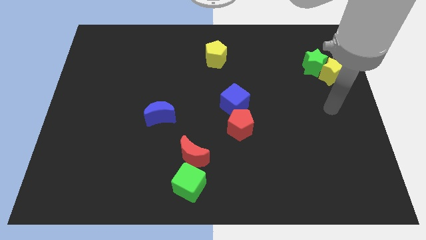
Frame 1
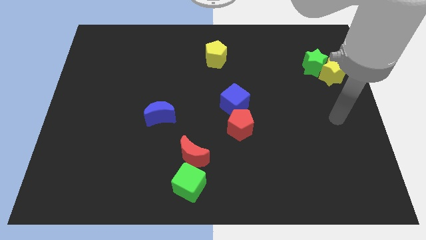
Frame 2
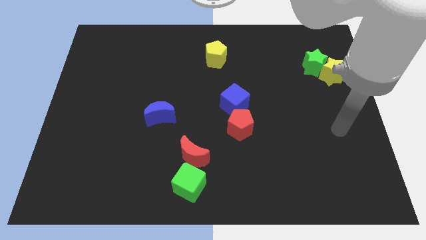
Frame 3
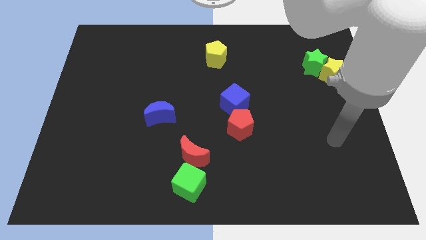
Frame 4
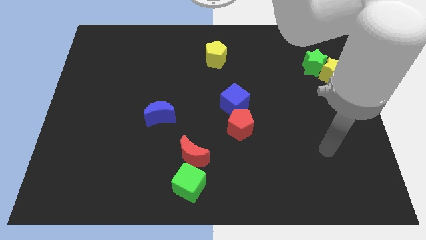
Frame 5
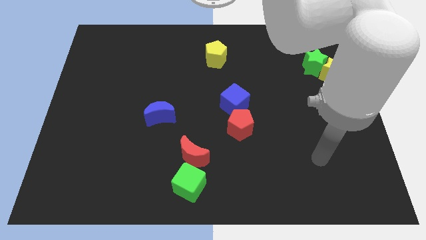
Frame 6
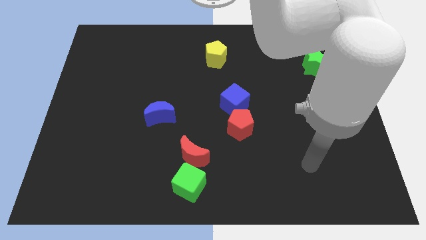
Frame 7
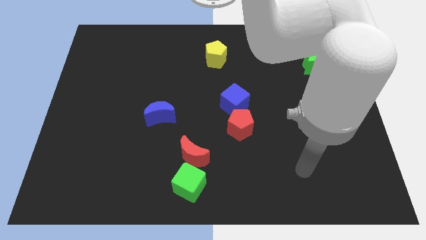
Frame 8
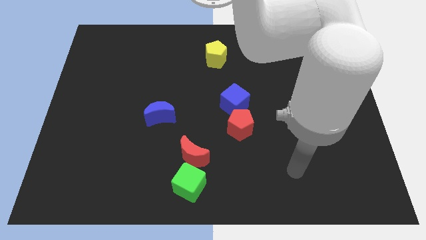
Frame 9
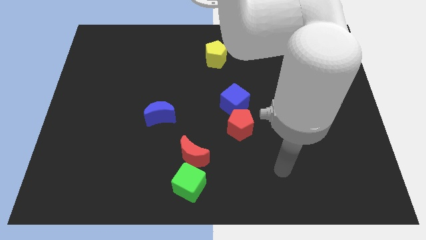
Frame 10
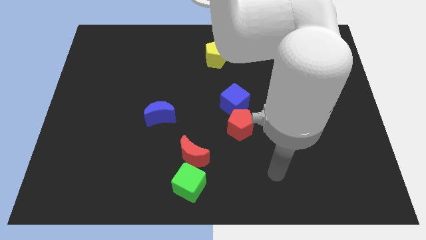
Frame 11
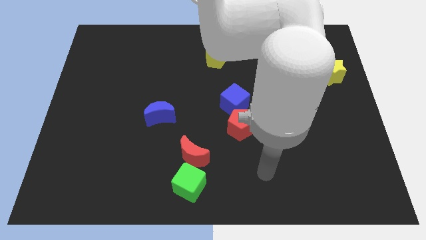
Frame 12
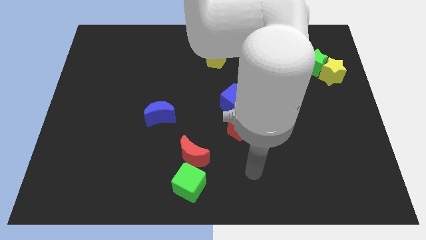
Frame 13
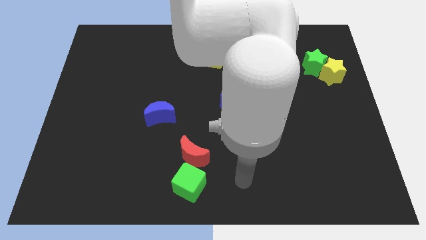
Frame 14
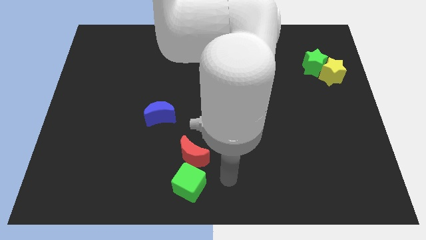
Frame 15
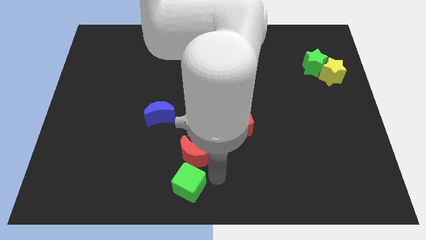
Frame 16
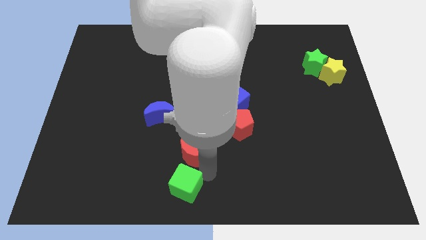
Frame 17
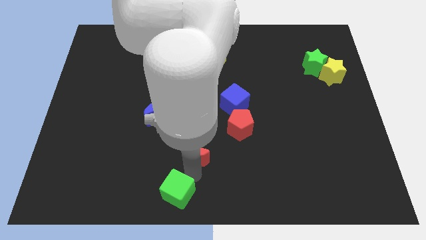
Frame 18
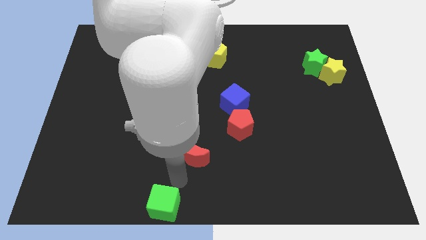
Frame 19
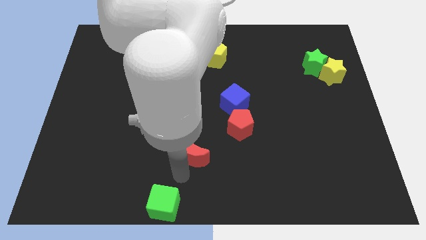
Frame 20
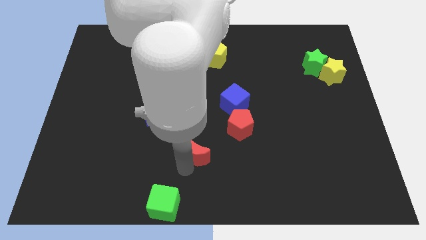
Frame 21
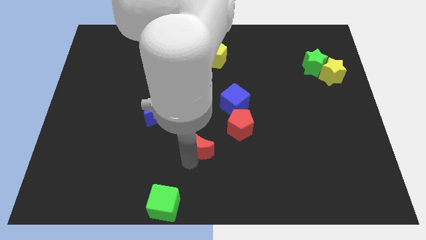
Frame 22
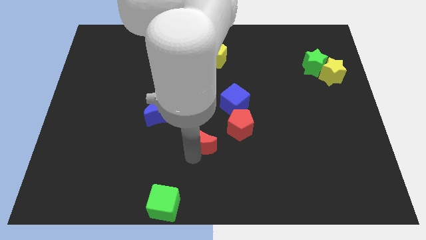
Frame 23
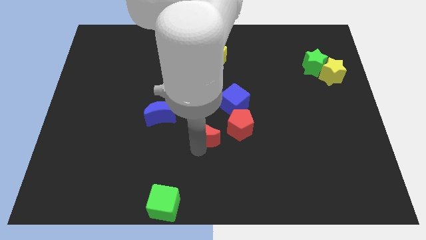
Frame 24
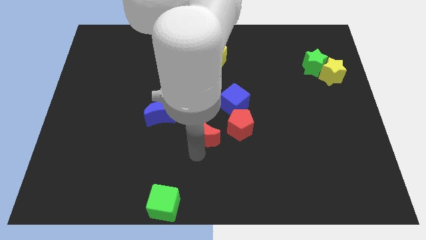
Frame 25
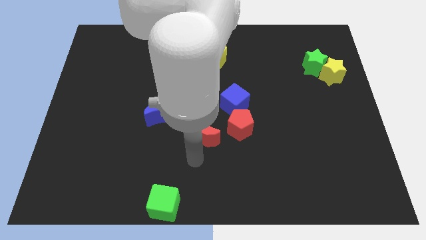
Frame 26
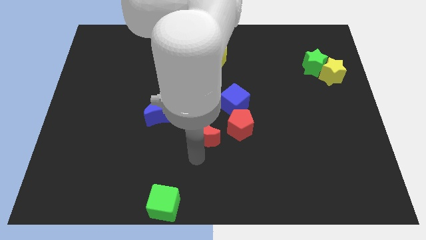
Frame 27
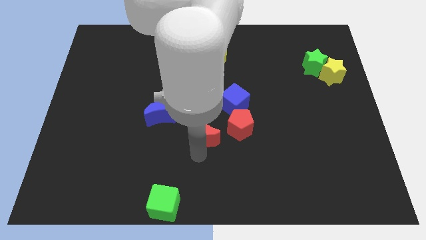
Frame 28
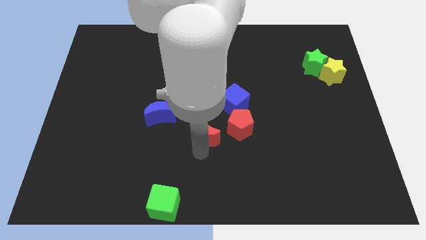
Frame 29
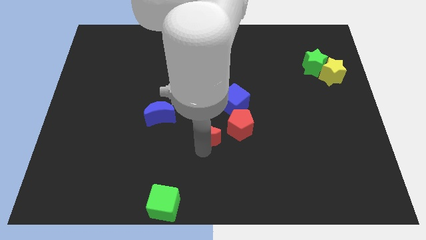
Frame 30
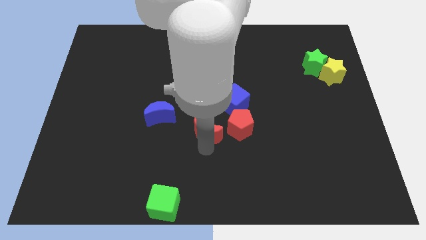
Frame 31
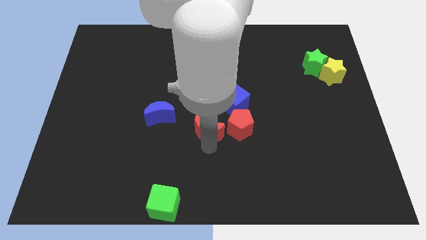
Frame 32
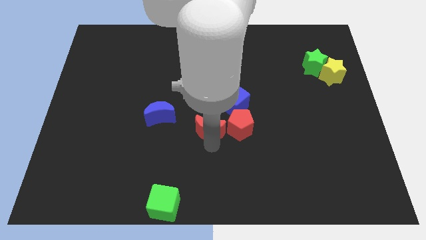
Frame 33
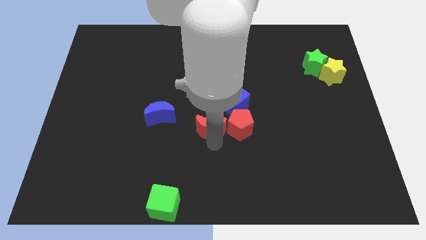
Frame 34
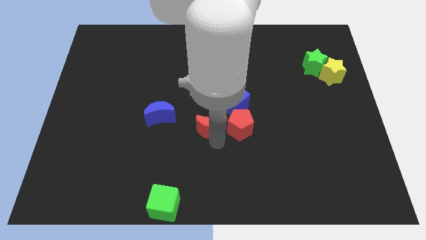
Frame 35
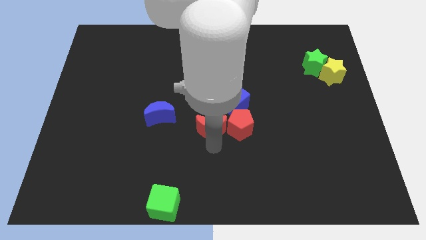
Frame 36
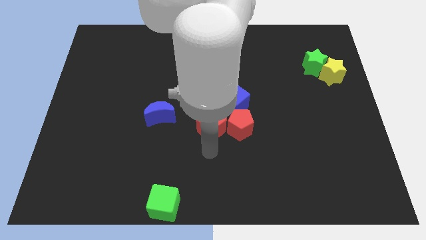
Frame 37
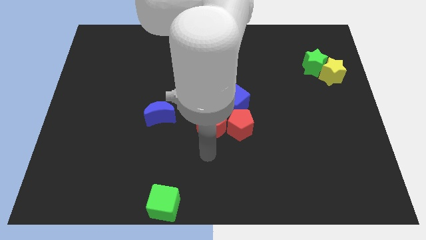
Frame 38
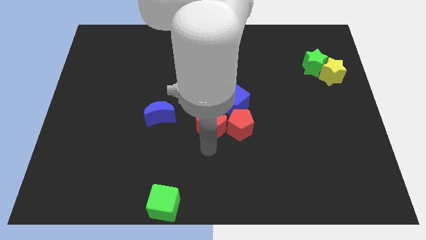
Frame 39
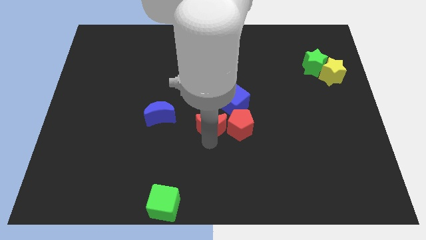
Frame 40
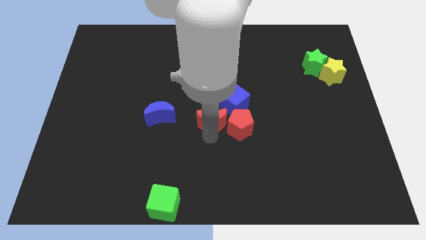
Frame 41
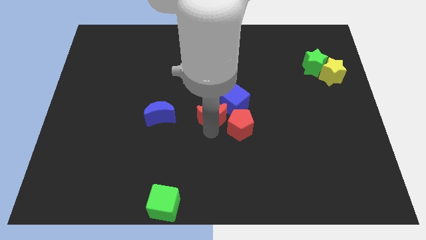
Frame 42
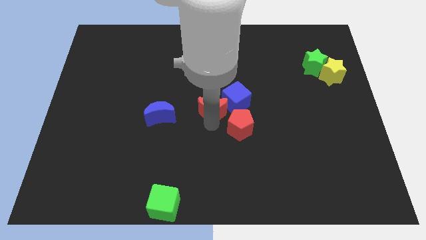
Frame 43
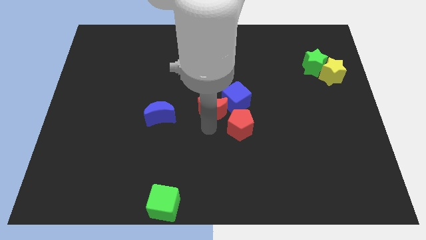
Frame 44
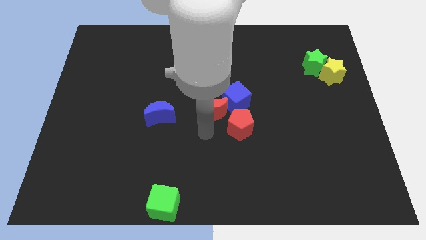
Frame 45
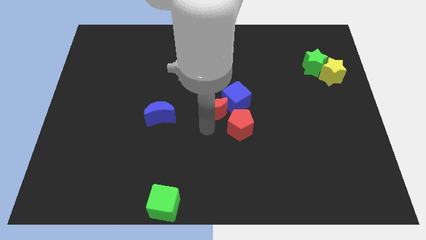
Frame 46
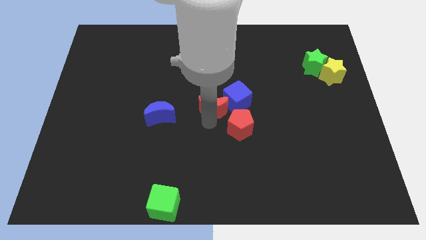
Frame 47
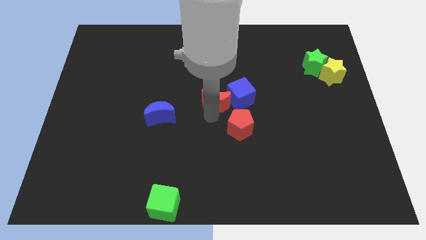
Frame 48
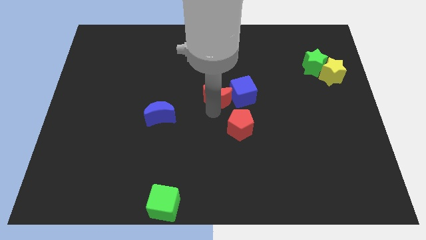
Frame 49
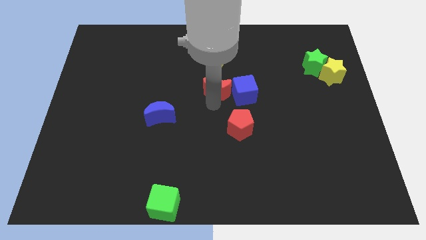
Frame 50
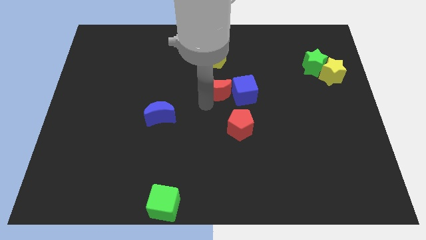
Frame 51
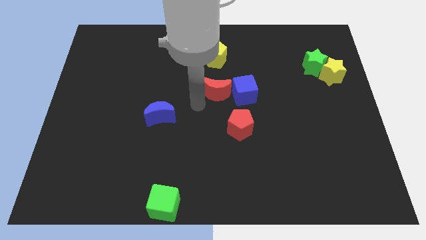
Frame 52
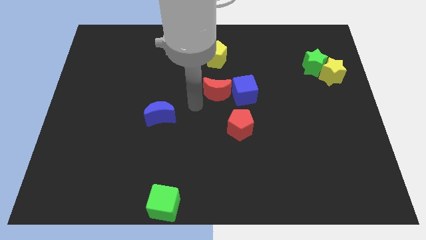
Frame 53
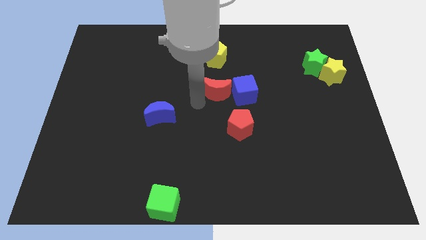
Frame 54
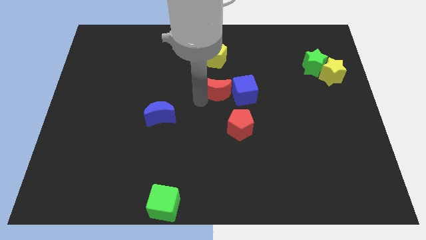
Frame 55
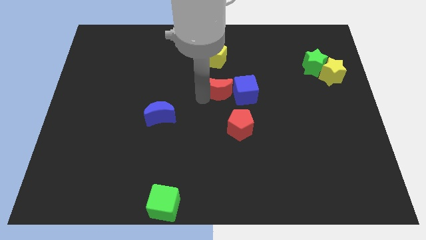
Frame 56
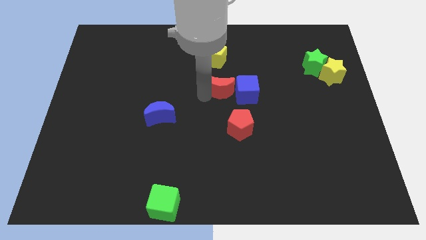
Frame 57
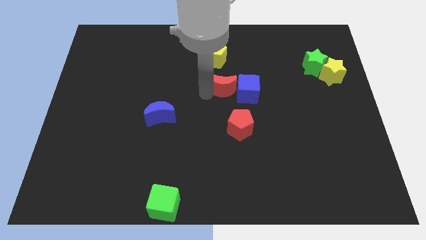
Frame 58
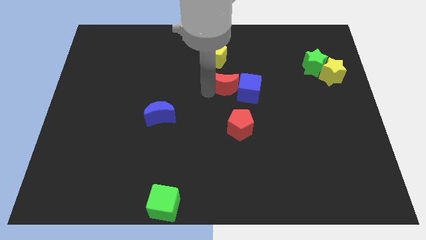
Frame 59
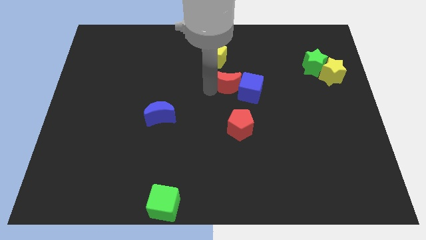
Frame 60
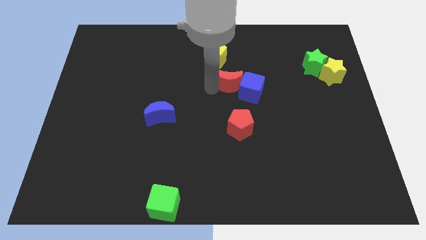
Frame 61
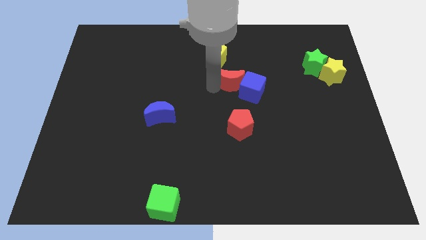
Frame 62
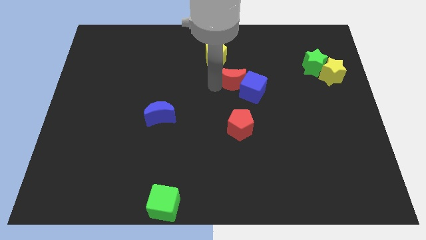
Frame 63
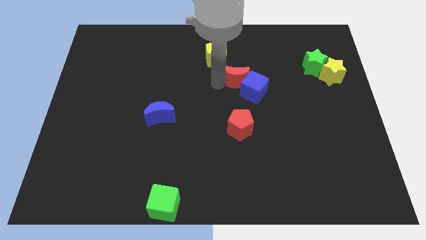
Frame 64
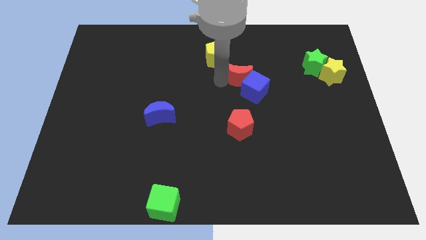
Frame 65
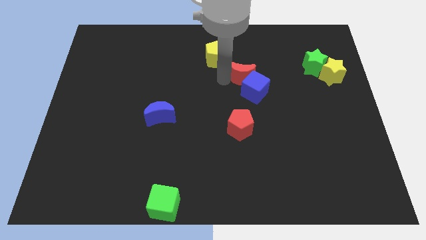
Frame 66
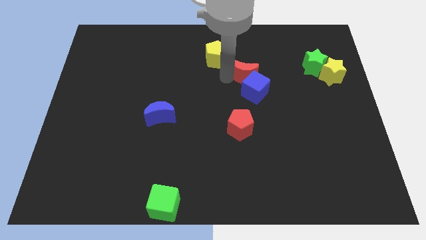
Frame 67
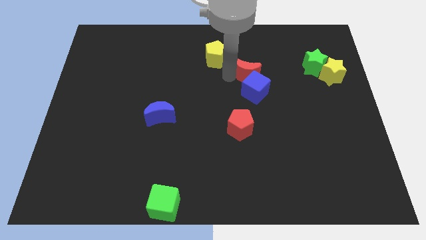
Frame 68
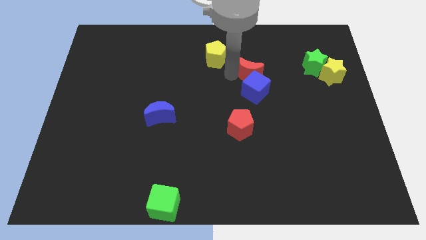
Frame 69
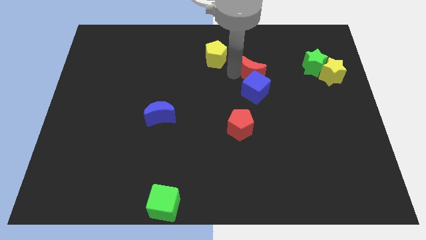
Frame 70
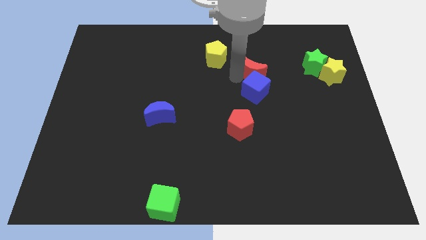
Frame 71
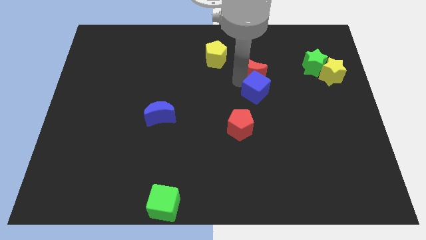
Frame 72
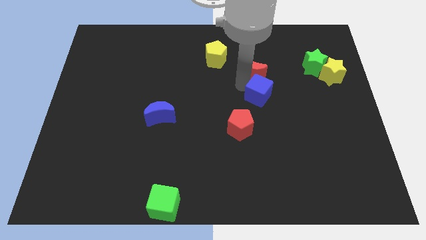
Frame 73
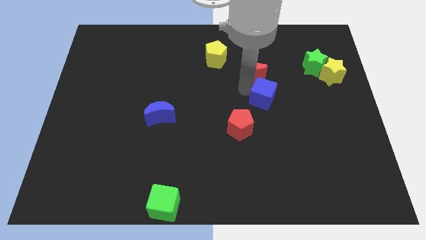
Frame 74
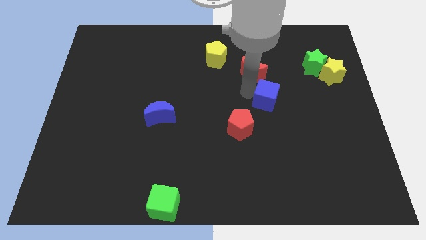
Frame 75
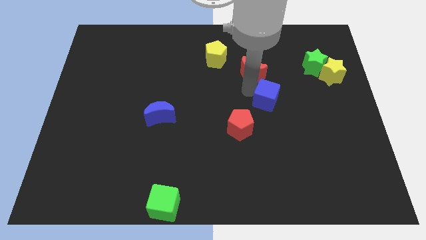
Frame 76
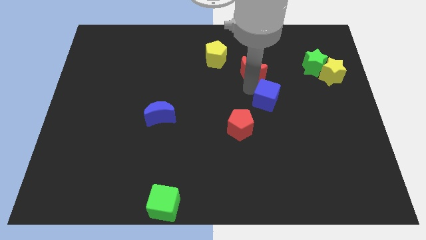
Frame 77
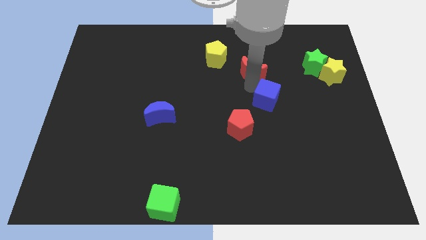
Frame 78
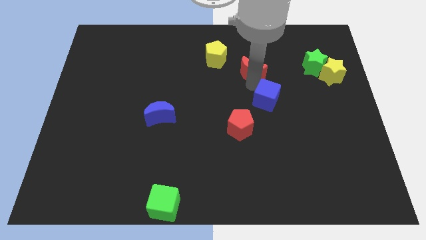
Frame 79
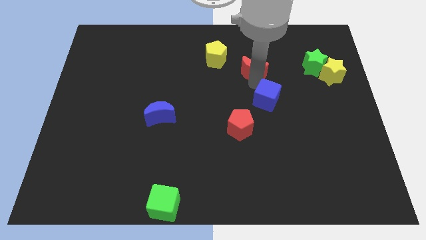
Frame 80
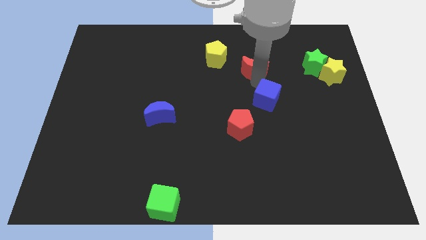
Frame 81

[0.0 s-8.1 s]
move the red moon to the right side of the yellow pentagon
